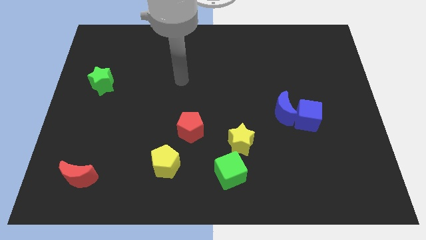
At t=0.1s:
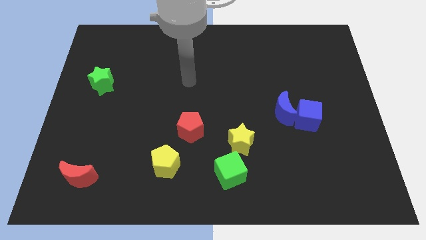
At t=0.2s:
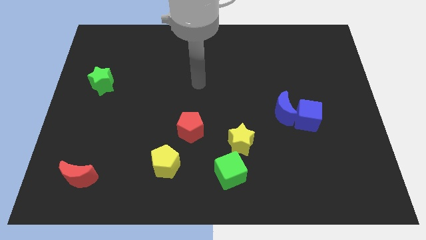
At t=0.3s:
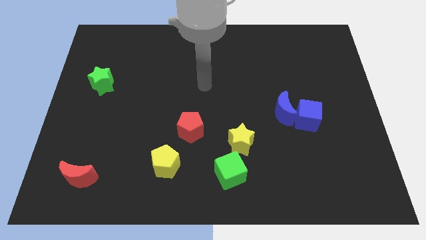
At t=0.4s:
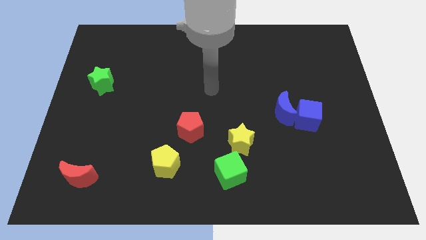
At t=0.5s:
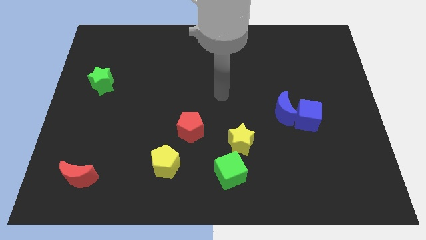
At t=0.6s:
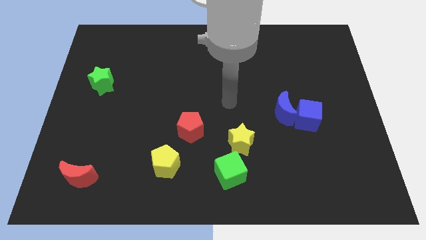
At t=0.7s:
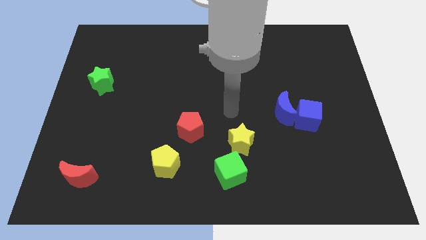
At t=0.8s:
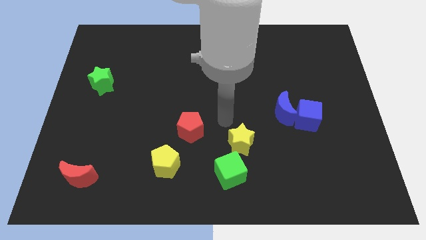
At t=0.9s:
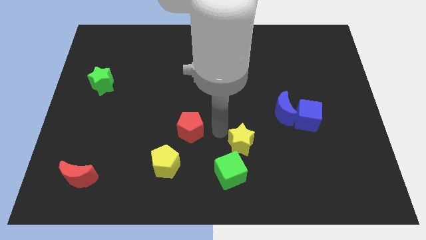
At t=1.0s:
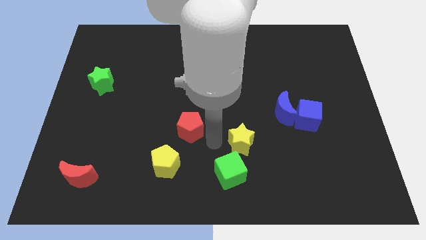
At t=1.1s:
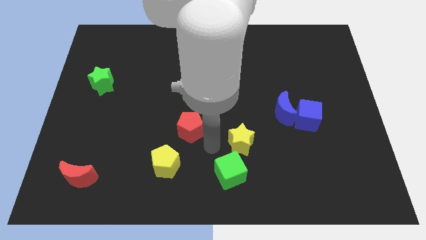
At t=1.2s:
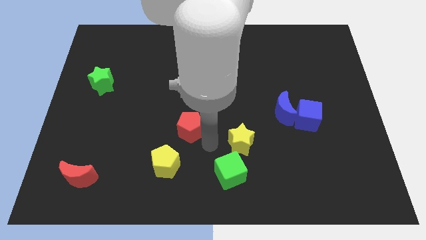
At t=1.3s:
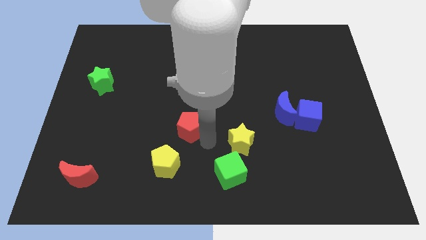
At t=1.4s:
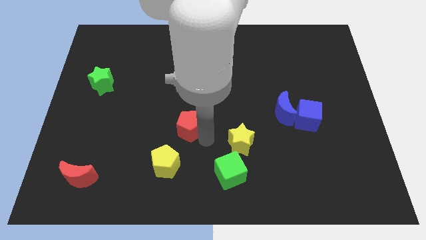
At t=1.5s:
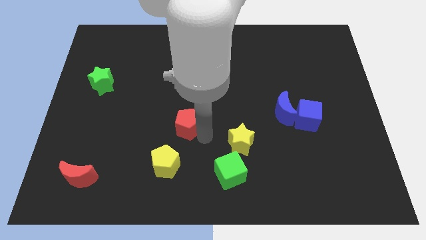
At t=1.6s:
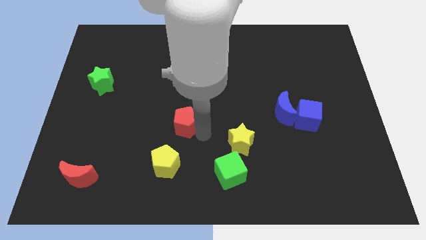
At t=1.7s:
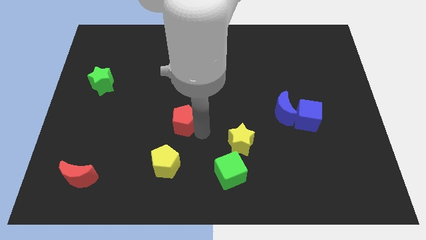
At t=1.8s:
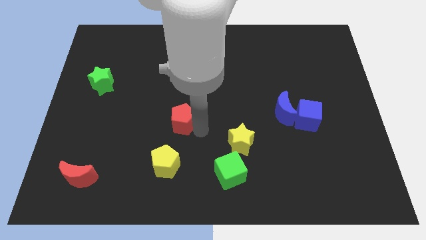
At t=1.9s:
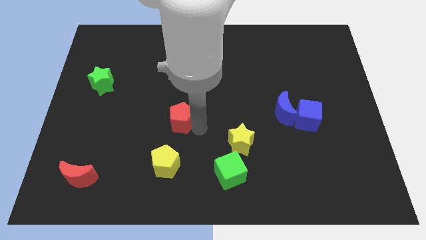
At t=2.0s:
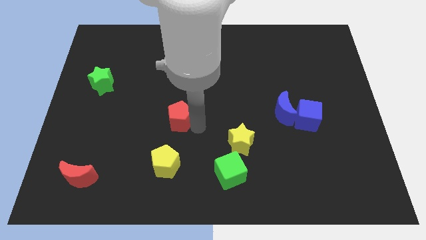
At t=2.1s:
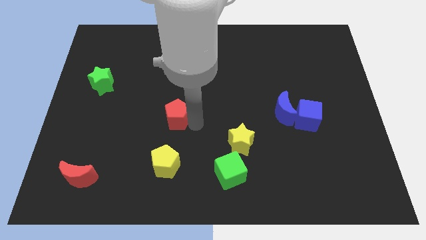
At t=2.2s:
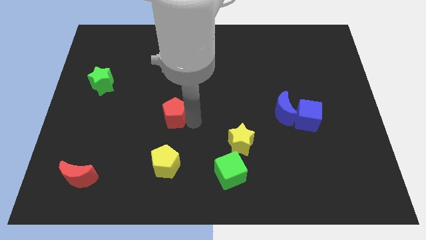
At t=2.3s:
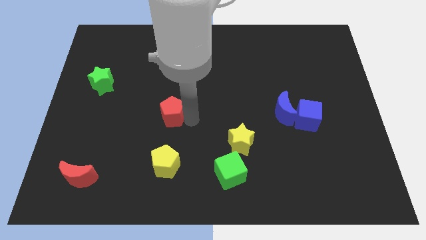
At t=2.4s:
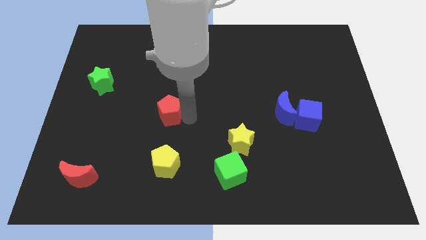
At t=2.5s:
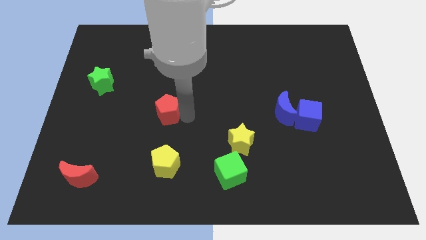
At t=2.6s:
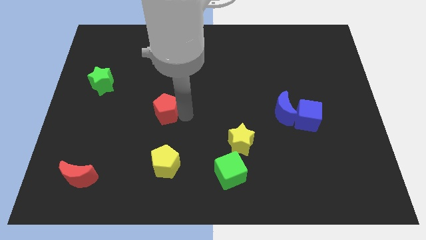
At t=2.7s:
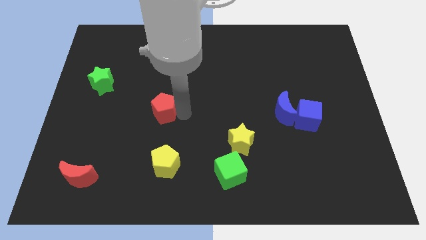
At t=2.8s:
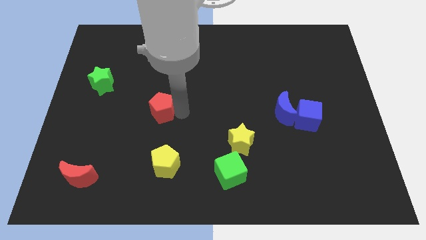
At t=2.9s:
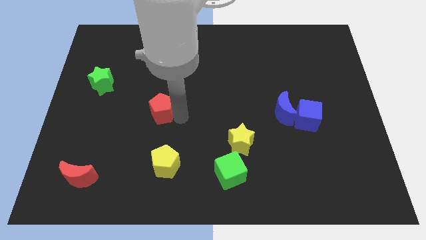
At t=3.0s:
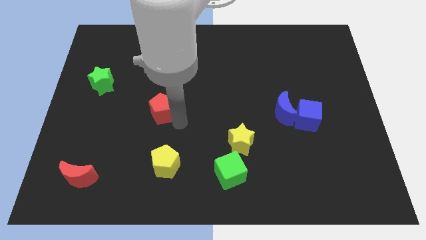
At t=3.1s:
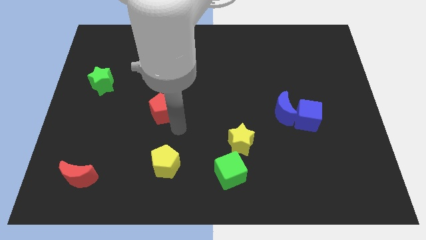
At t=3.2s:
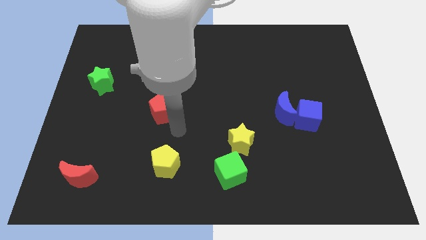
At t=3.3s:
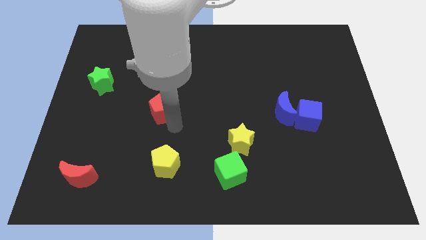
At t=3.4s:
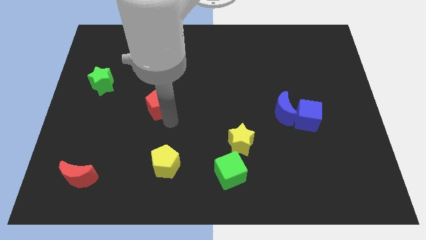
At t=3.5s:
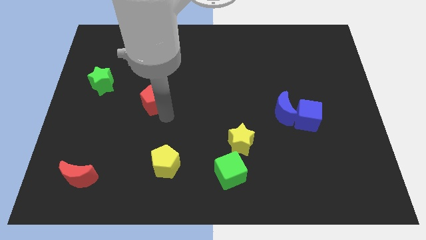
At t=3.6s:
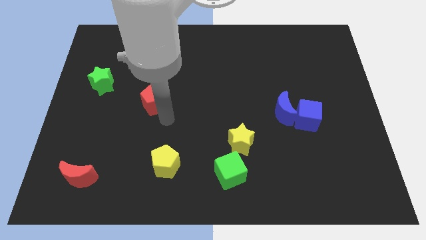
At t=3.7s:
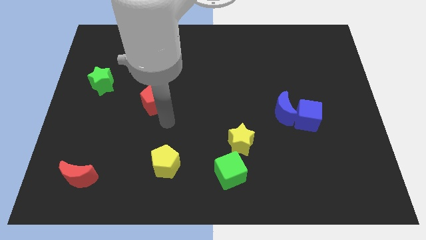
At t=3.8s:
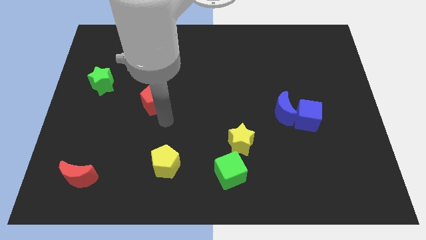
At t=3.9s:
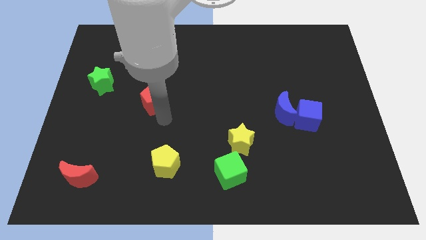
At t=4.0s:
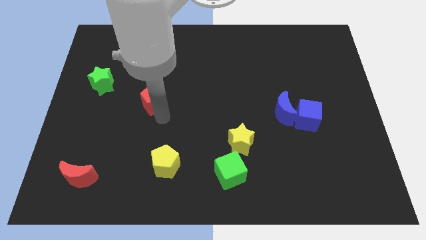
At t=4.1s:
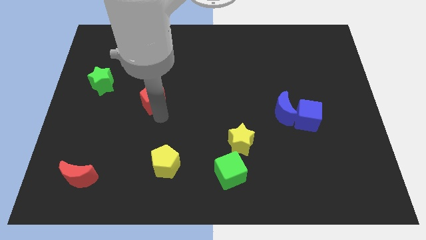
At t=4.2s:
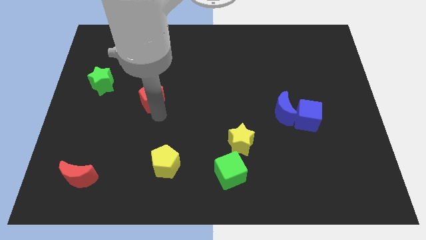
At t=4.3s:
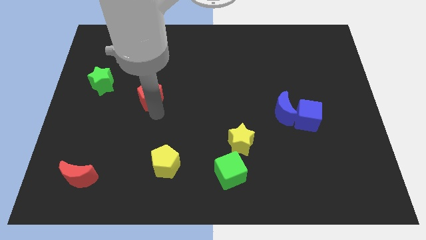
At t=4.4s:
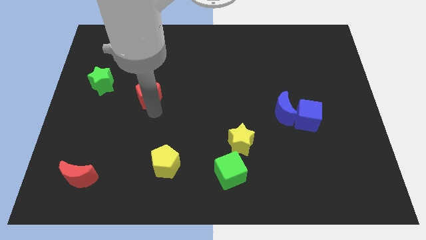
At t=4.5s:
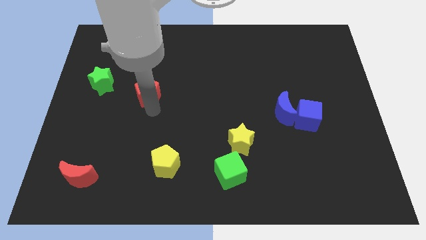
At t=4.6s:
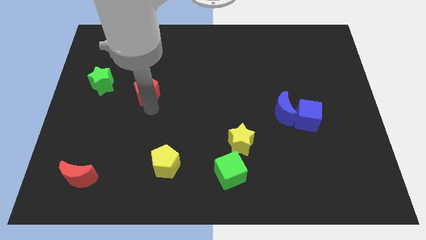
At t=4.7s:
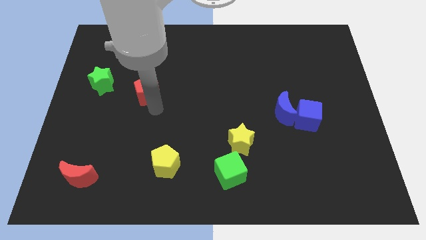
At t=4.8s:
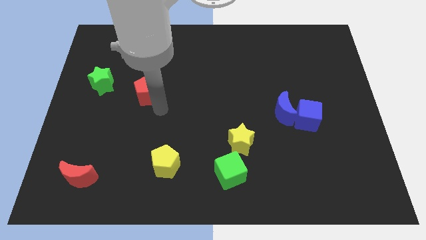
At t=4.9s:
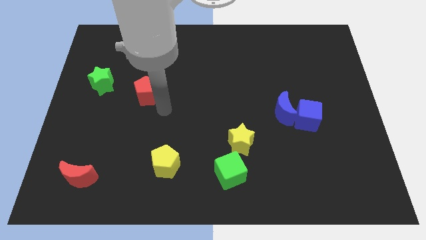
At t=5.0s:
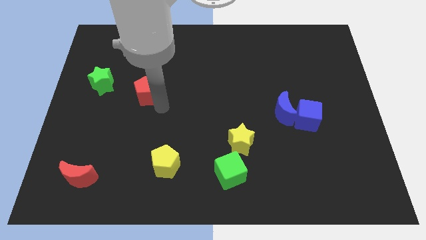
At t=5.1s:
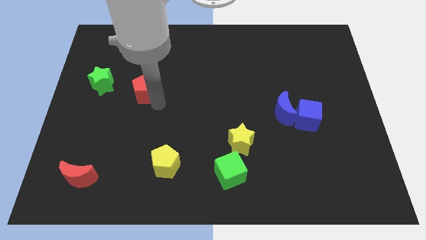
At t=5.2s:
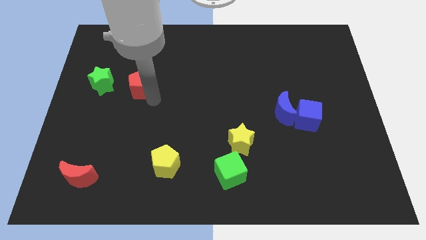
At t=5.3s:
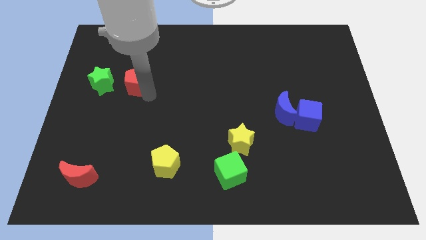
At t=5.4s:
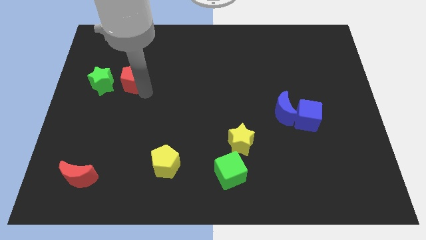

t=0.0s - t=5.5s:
slide the red pentagon upwards and then left

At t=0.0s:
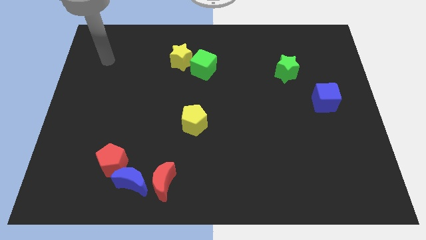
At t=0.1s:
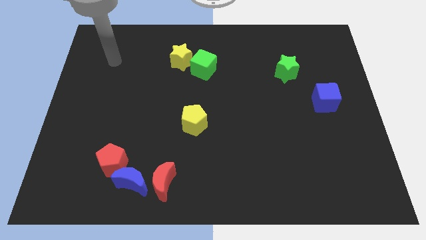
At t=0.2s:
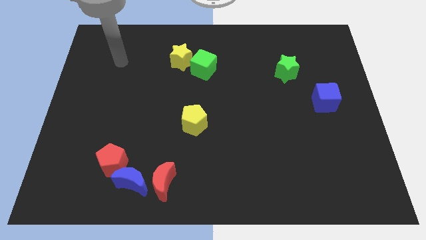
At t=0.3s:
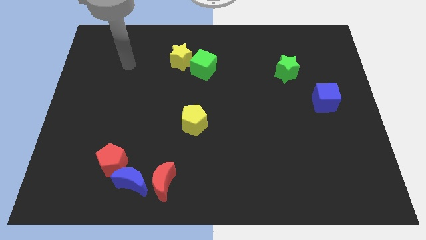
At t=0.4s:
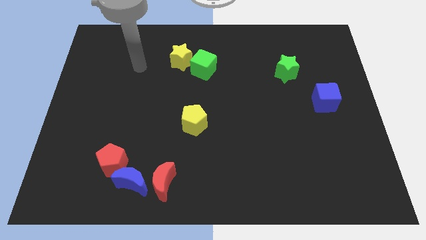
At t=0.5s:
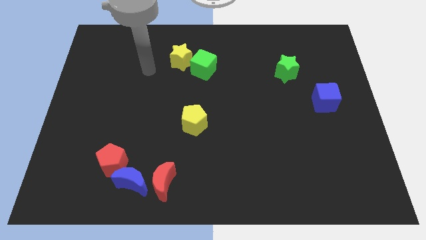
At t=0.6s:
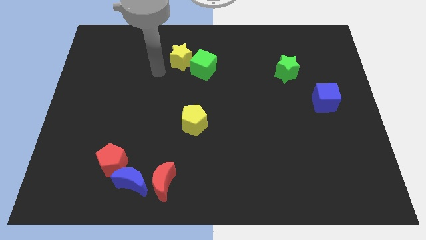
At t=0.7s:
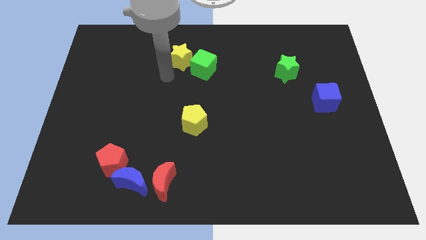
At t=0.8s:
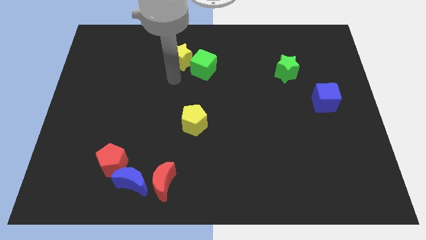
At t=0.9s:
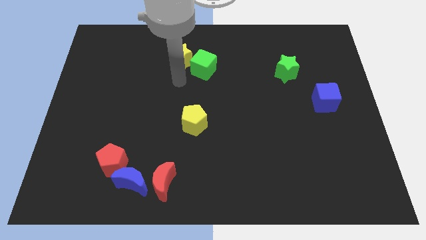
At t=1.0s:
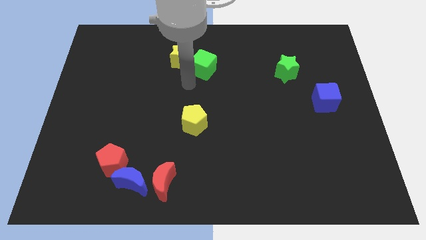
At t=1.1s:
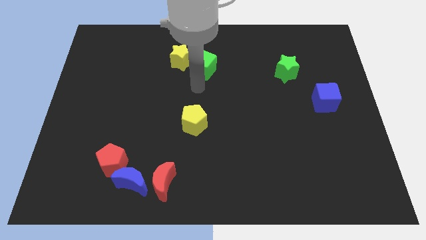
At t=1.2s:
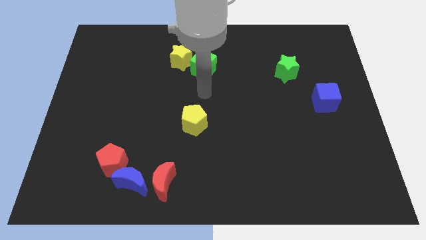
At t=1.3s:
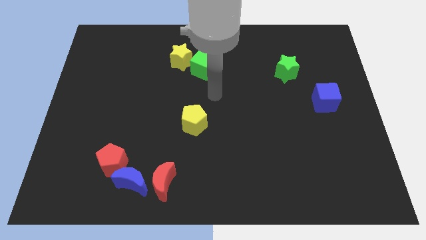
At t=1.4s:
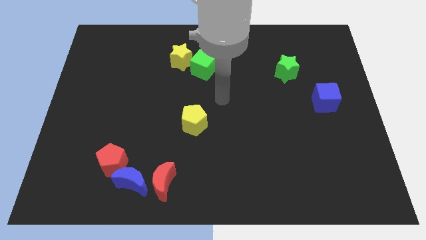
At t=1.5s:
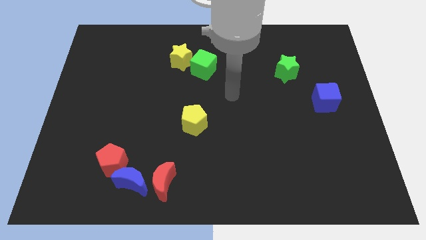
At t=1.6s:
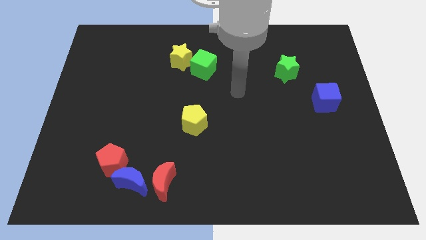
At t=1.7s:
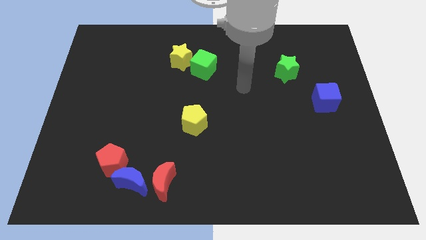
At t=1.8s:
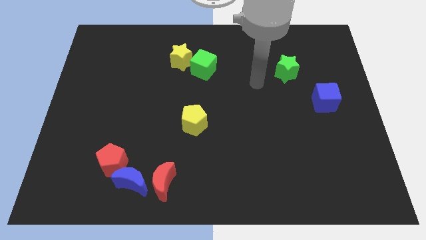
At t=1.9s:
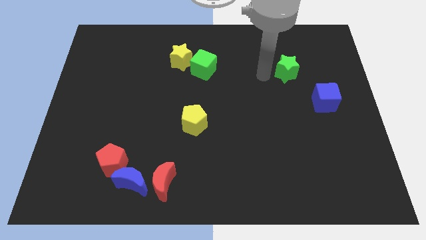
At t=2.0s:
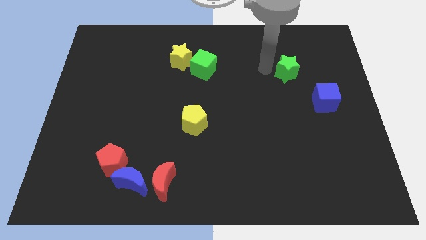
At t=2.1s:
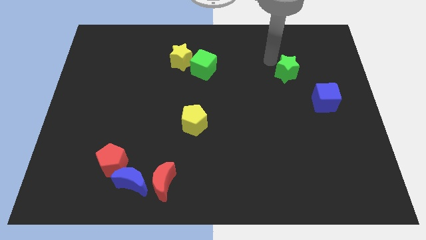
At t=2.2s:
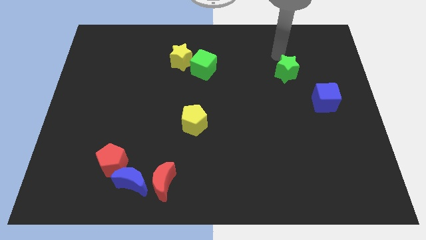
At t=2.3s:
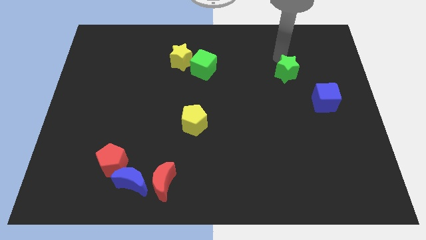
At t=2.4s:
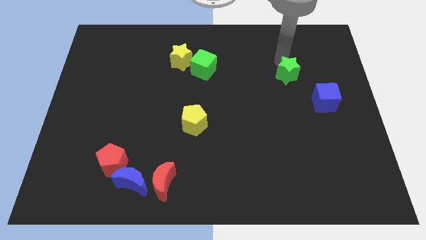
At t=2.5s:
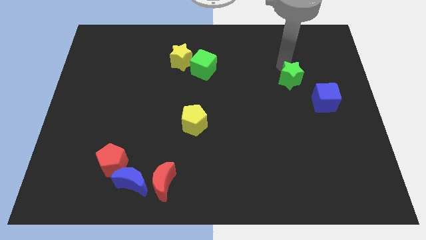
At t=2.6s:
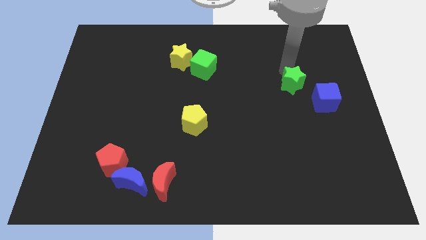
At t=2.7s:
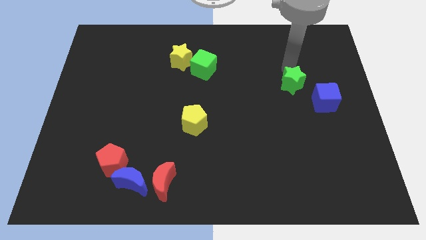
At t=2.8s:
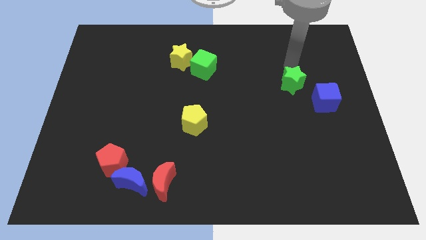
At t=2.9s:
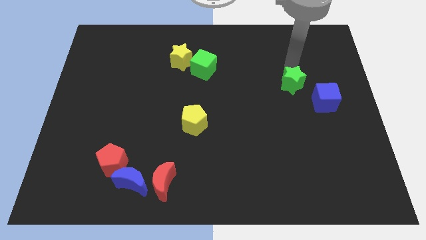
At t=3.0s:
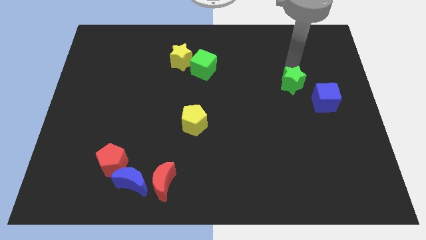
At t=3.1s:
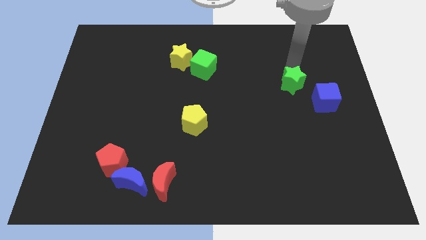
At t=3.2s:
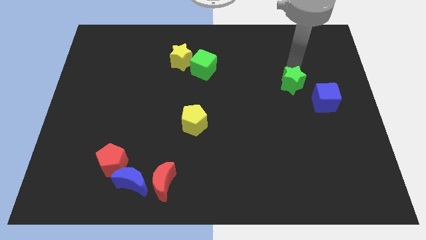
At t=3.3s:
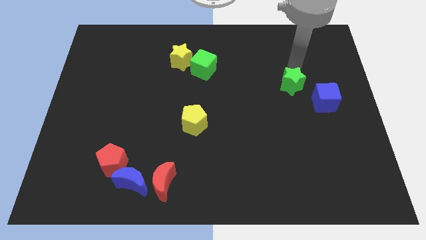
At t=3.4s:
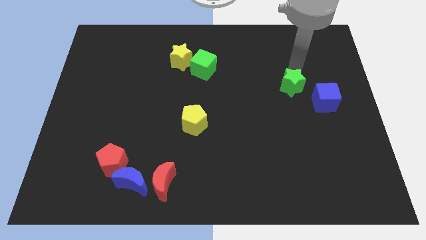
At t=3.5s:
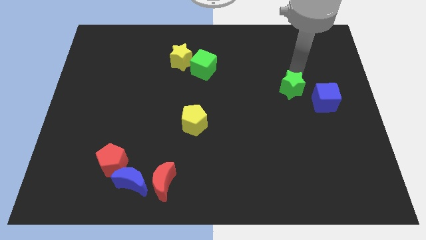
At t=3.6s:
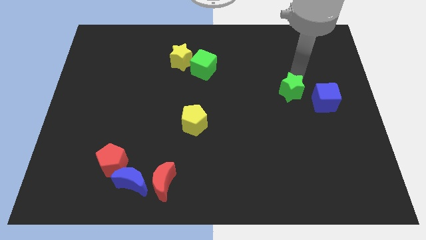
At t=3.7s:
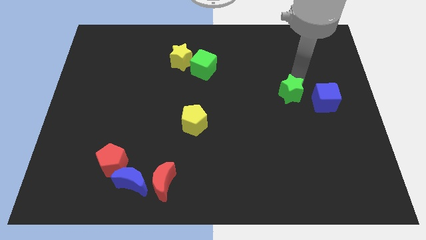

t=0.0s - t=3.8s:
slightly move the green star down
